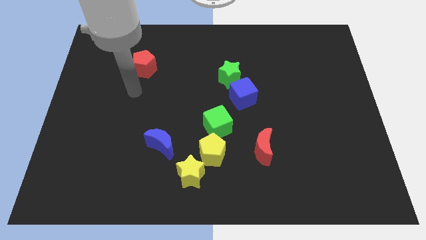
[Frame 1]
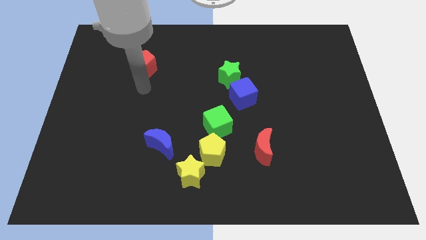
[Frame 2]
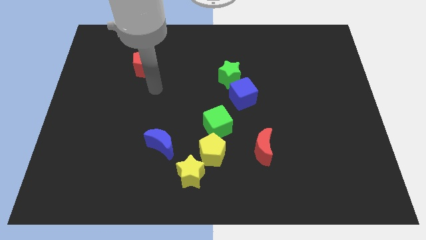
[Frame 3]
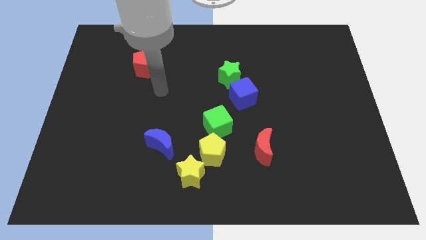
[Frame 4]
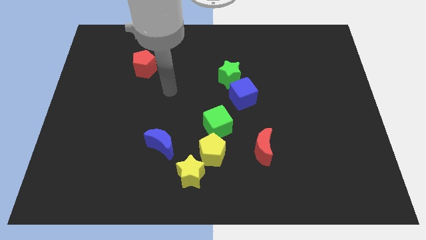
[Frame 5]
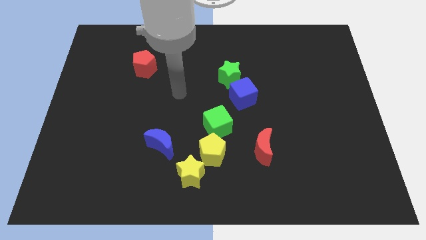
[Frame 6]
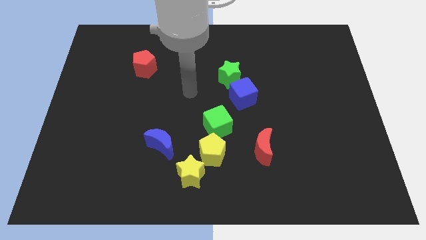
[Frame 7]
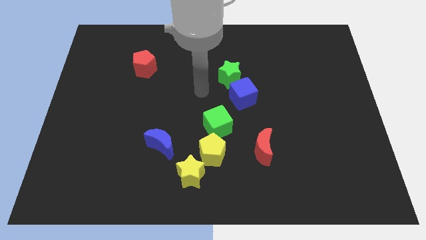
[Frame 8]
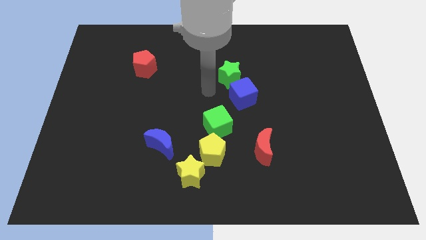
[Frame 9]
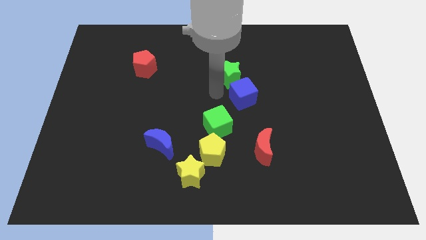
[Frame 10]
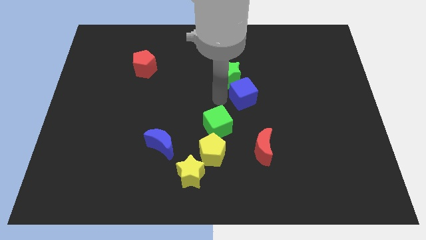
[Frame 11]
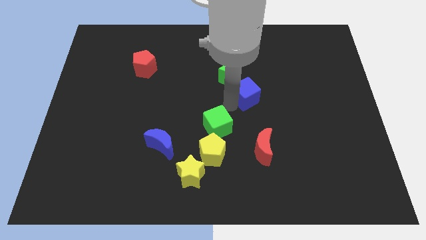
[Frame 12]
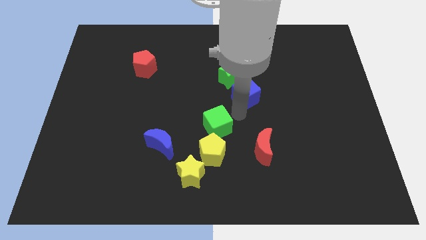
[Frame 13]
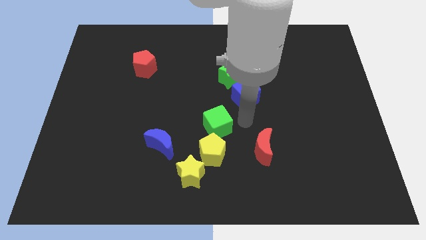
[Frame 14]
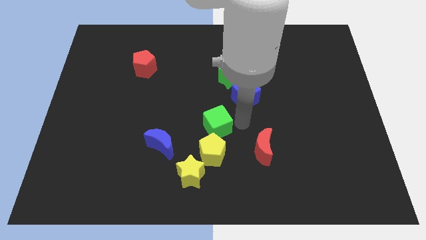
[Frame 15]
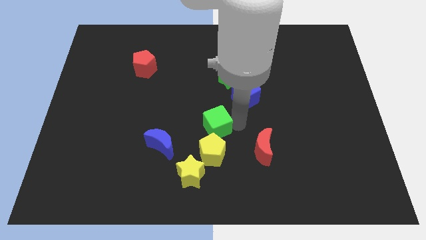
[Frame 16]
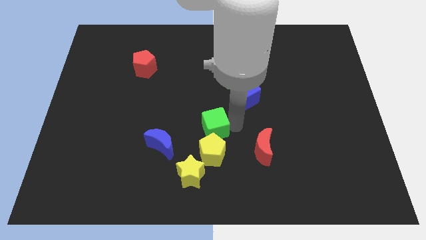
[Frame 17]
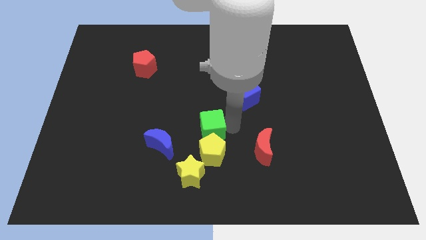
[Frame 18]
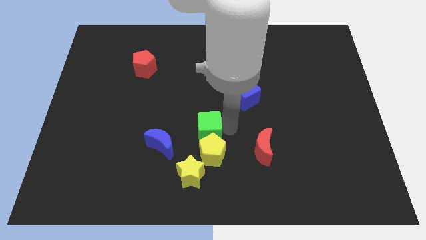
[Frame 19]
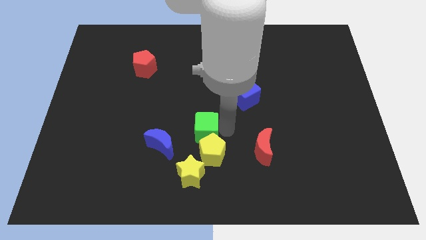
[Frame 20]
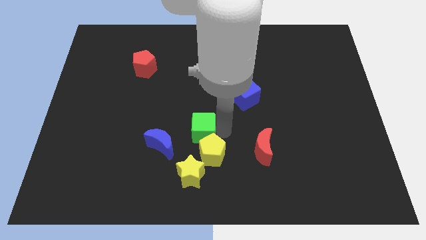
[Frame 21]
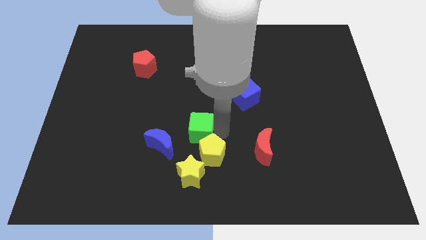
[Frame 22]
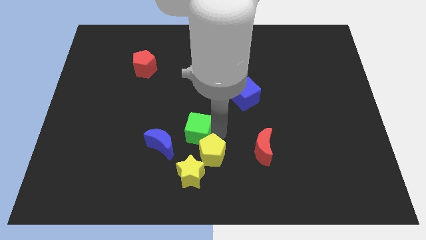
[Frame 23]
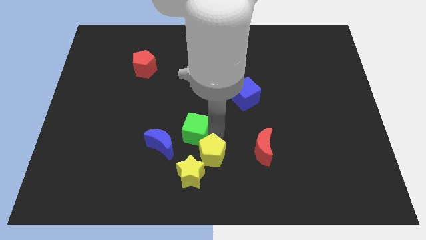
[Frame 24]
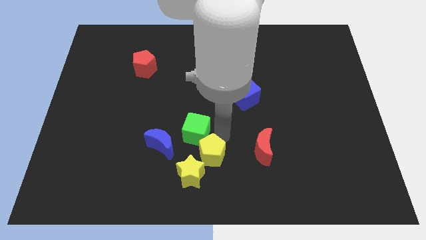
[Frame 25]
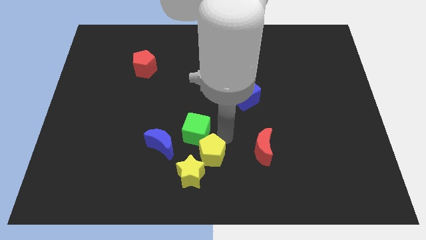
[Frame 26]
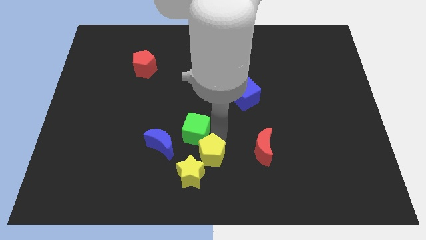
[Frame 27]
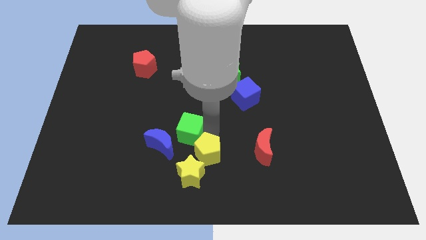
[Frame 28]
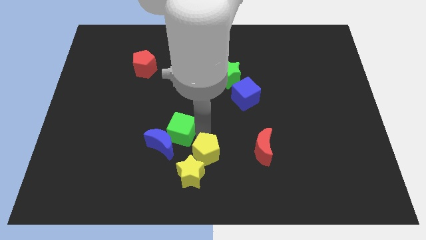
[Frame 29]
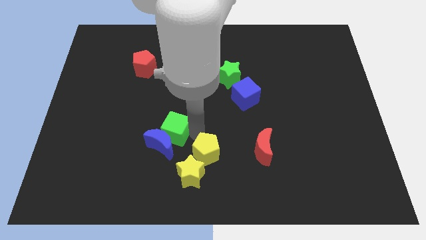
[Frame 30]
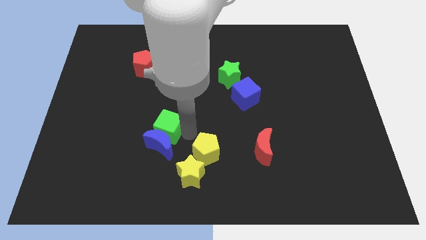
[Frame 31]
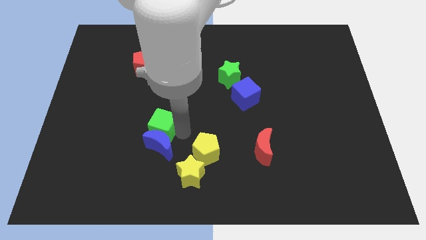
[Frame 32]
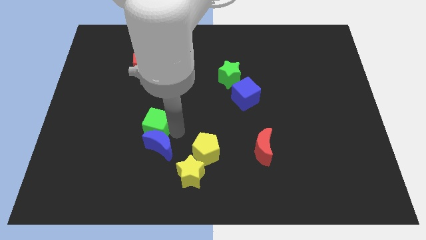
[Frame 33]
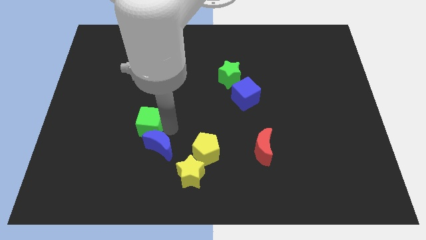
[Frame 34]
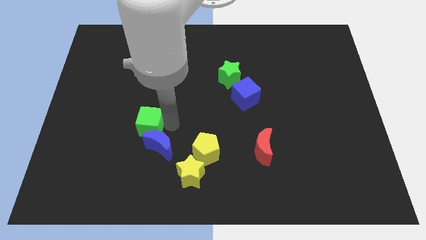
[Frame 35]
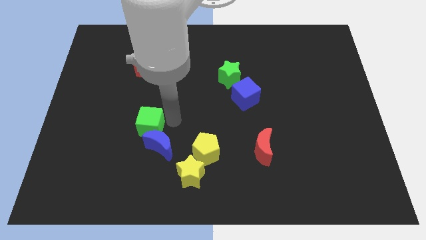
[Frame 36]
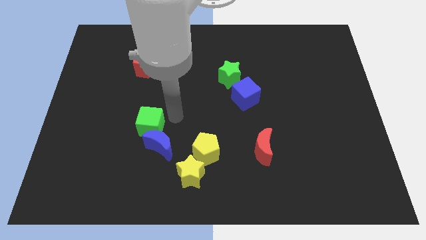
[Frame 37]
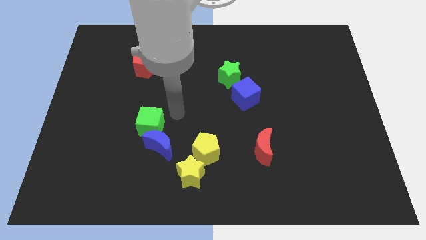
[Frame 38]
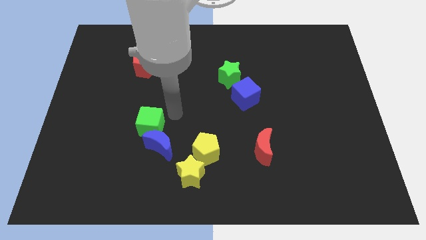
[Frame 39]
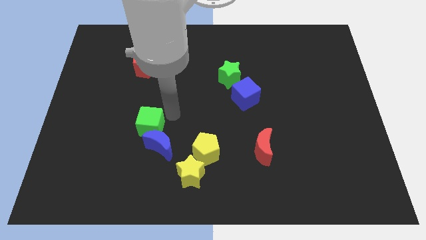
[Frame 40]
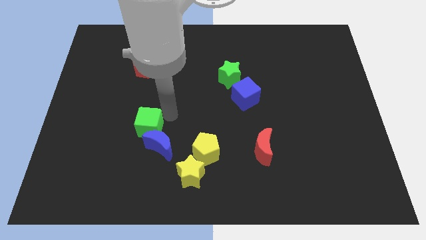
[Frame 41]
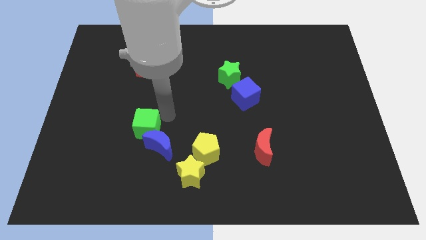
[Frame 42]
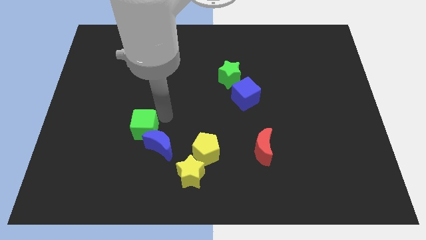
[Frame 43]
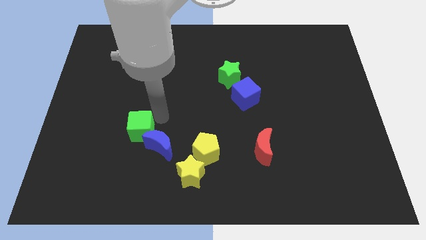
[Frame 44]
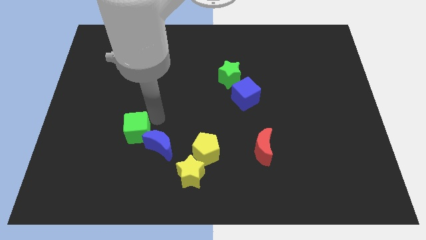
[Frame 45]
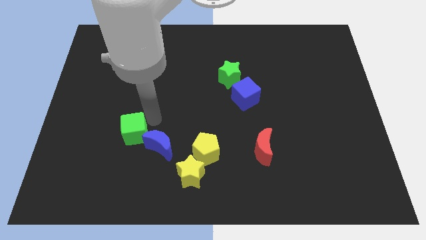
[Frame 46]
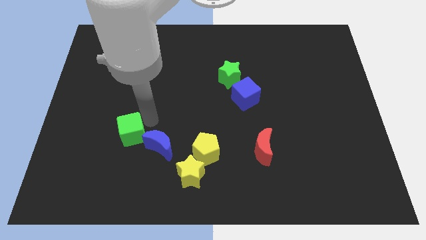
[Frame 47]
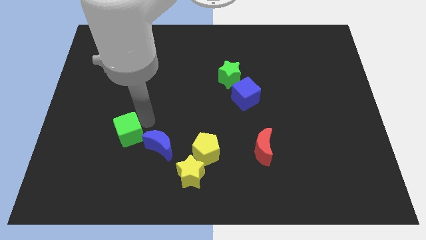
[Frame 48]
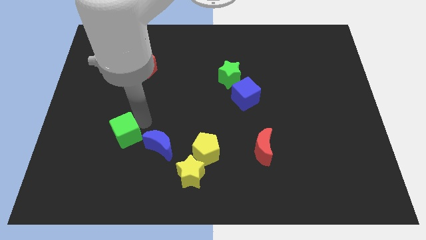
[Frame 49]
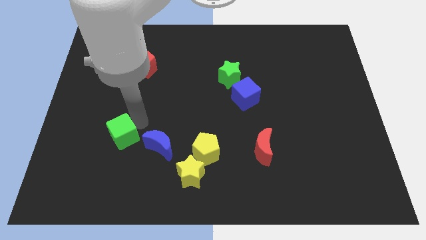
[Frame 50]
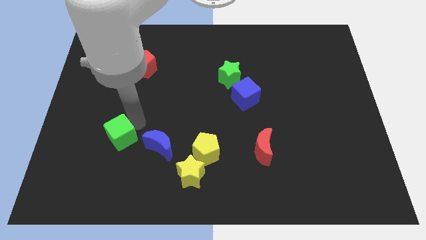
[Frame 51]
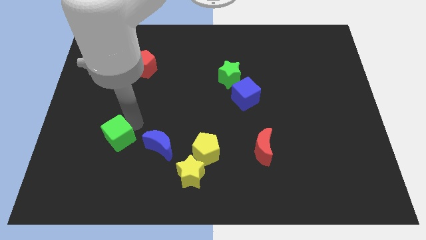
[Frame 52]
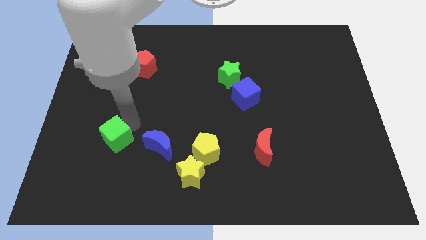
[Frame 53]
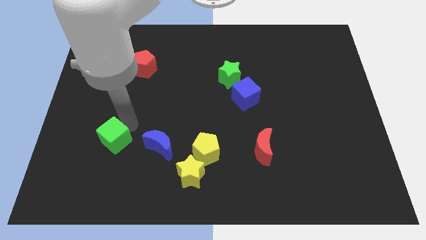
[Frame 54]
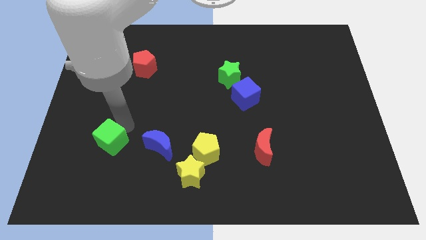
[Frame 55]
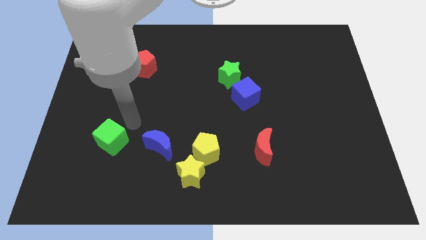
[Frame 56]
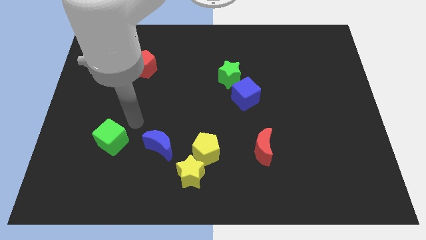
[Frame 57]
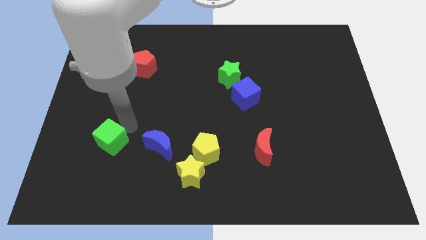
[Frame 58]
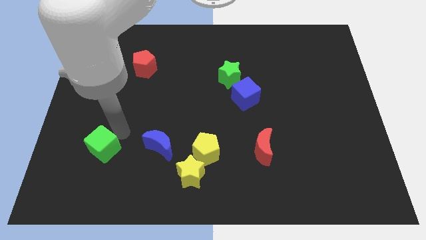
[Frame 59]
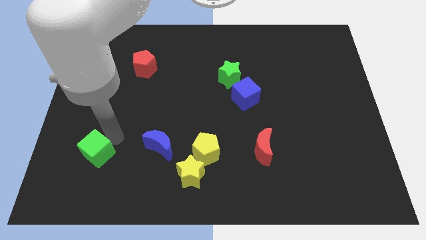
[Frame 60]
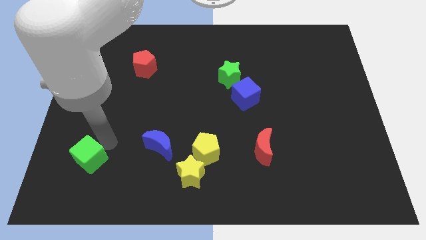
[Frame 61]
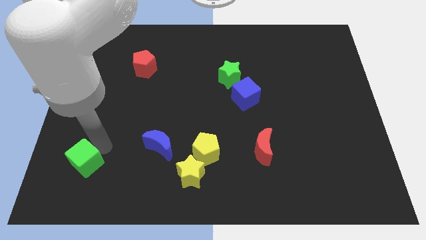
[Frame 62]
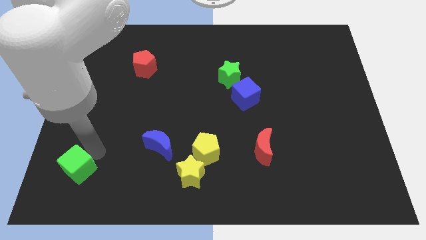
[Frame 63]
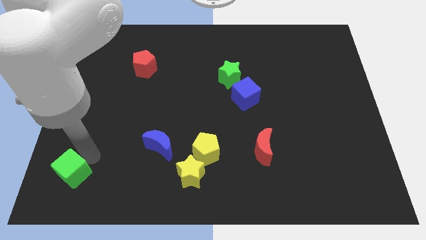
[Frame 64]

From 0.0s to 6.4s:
put the green cube to the bottom left of the board
